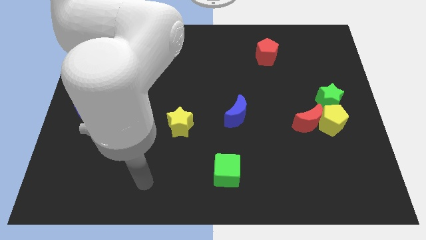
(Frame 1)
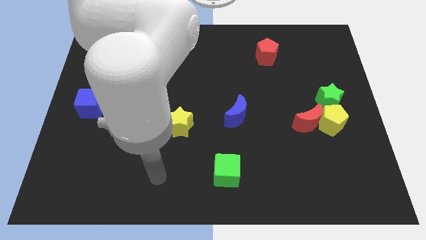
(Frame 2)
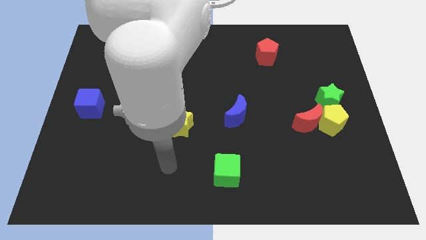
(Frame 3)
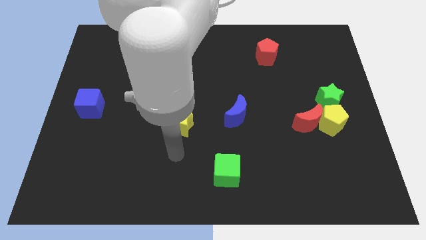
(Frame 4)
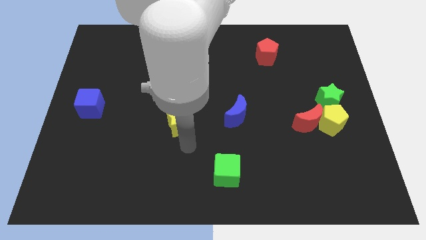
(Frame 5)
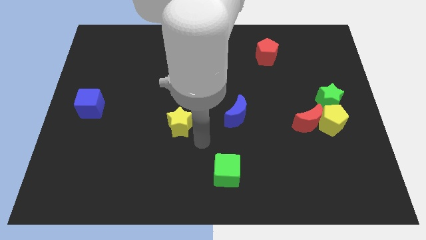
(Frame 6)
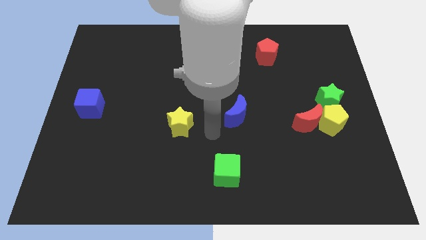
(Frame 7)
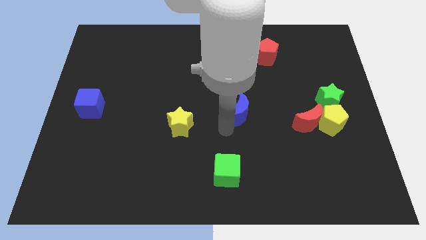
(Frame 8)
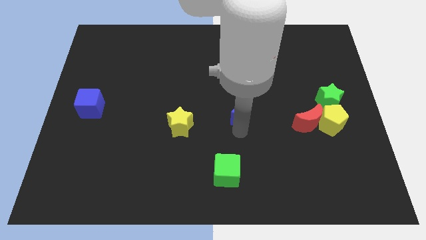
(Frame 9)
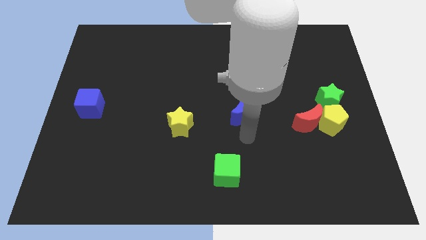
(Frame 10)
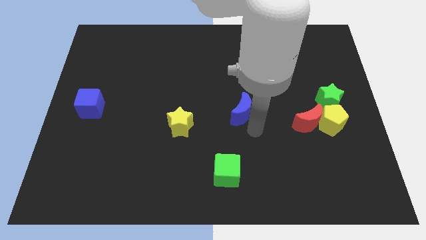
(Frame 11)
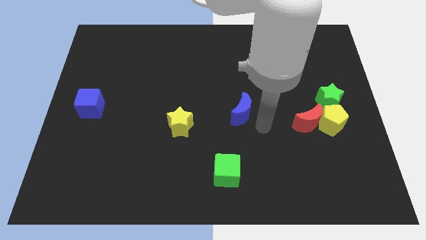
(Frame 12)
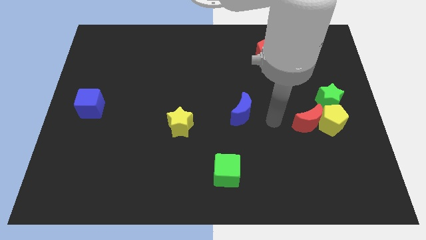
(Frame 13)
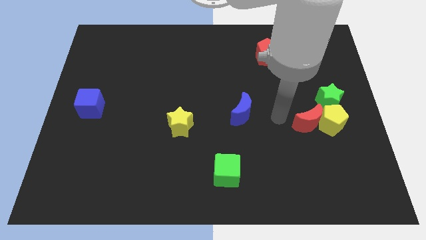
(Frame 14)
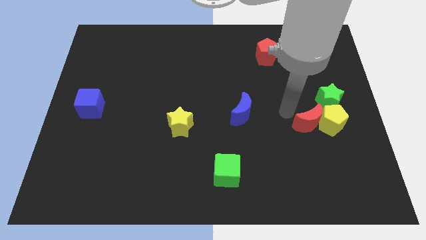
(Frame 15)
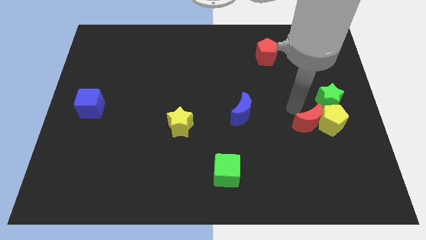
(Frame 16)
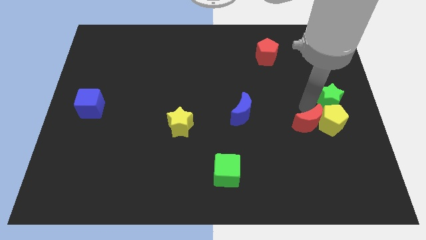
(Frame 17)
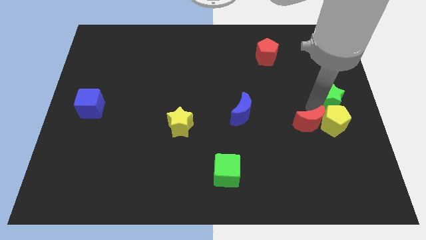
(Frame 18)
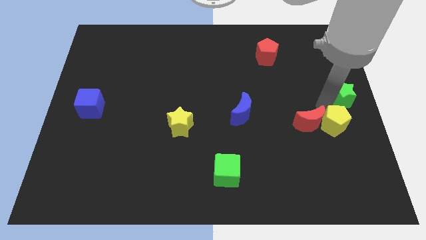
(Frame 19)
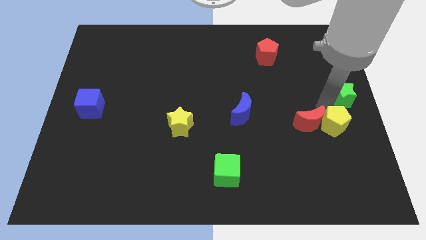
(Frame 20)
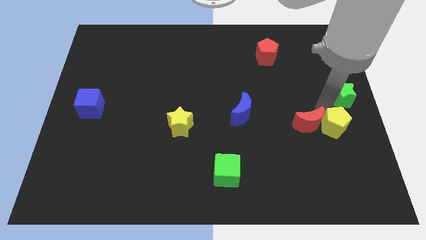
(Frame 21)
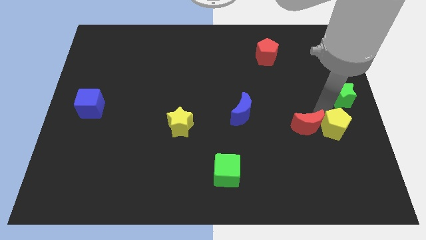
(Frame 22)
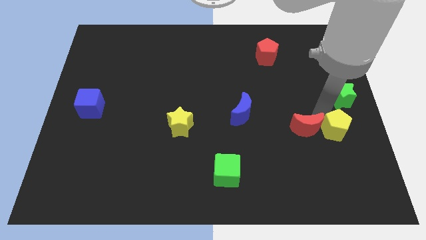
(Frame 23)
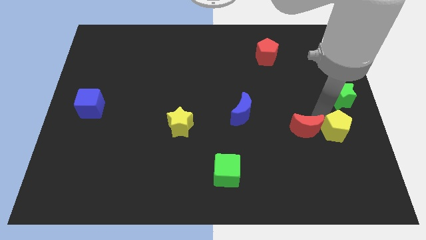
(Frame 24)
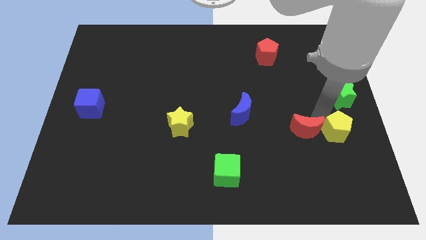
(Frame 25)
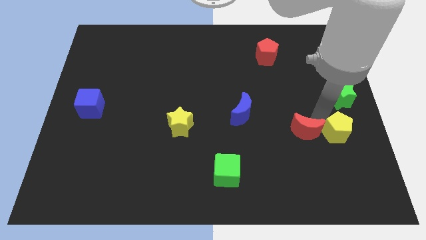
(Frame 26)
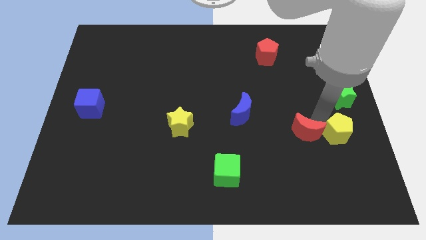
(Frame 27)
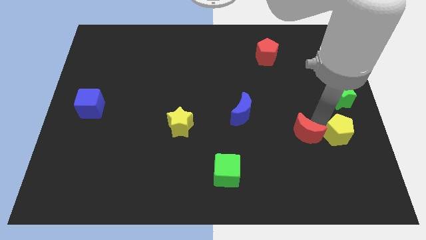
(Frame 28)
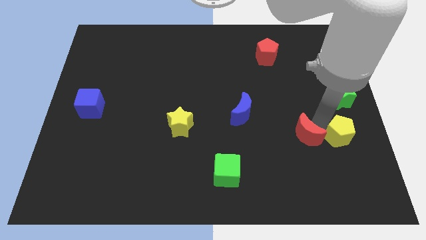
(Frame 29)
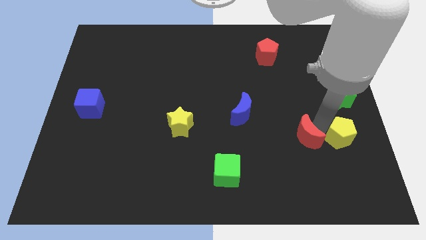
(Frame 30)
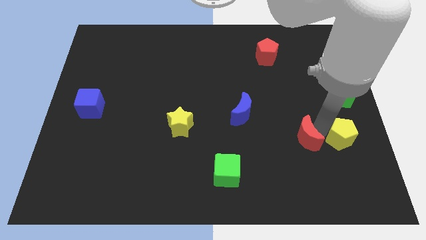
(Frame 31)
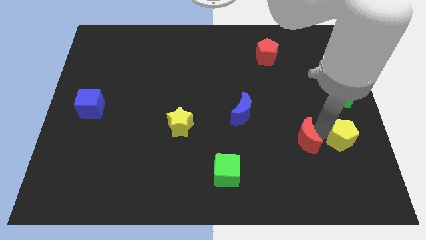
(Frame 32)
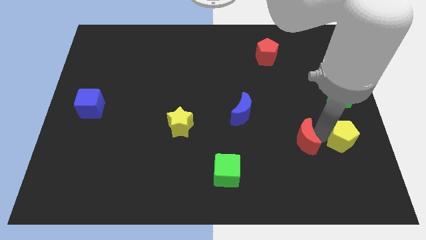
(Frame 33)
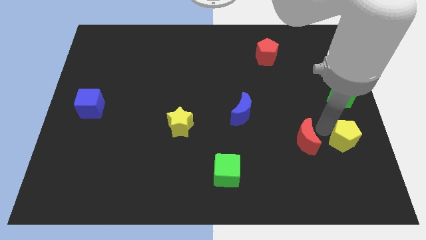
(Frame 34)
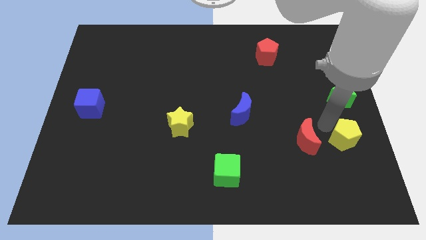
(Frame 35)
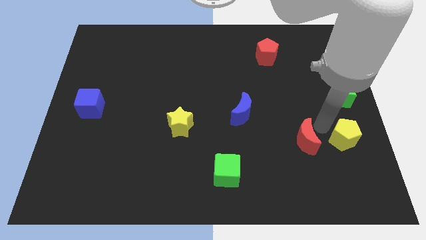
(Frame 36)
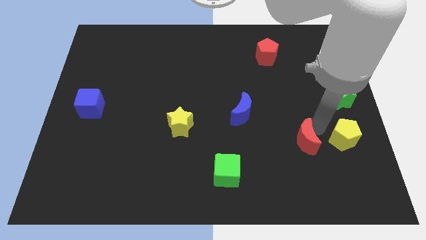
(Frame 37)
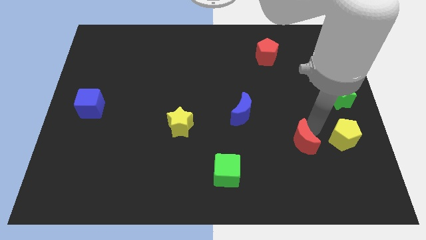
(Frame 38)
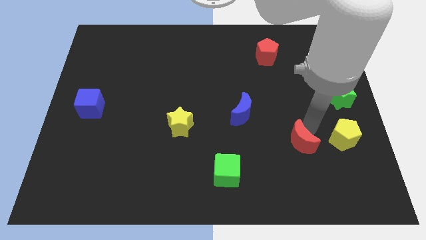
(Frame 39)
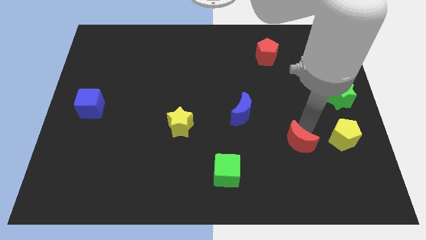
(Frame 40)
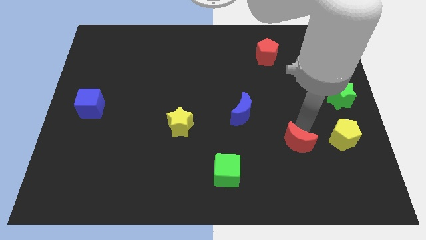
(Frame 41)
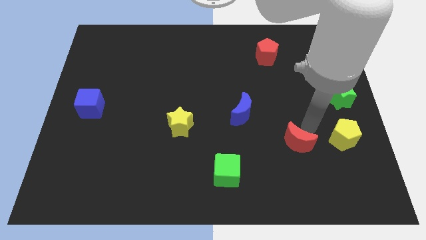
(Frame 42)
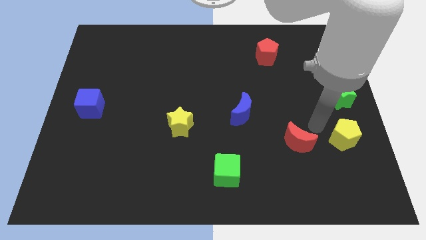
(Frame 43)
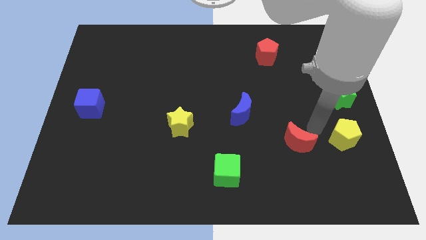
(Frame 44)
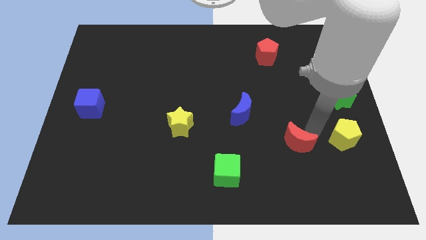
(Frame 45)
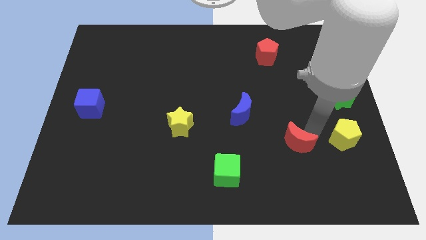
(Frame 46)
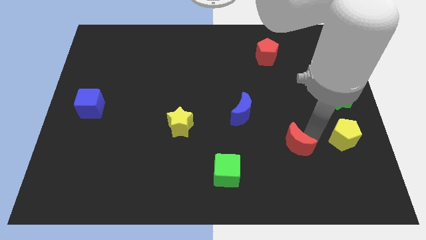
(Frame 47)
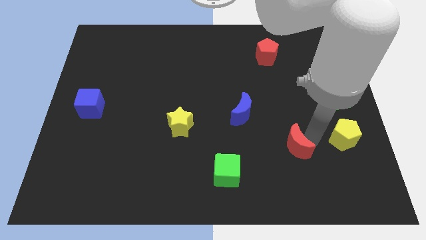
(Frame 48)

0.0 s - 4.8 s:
push the red moon a bit diagonally down and to the left

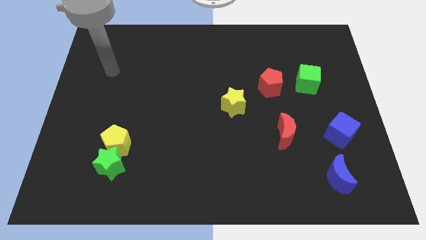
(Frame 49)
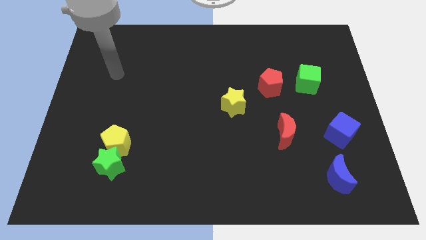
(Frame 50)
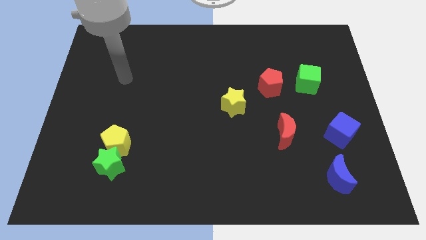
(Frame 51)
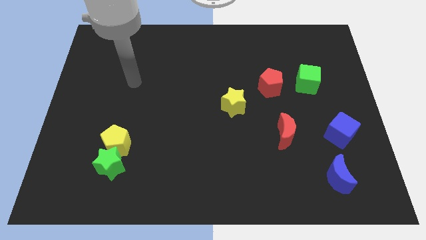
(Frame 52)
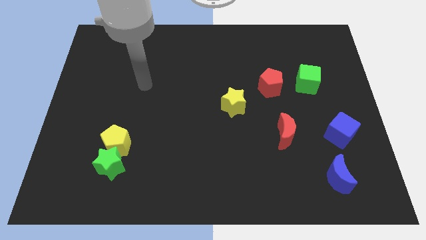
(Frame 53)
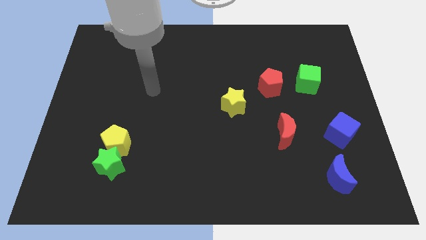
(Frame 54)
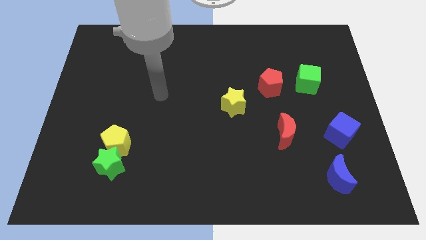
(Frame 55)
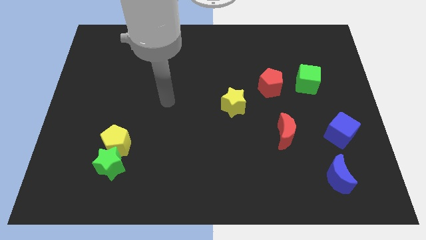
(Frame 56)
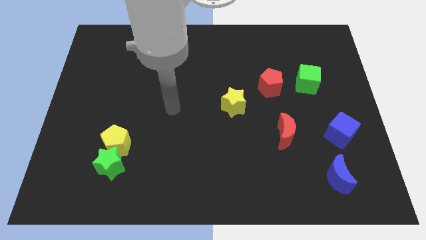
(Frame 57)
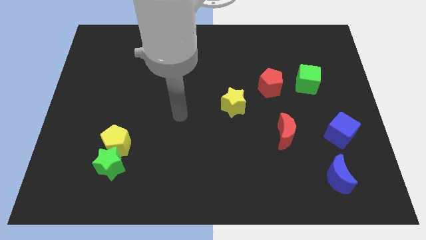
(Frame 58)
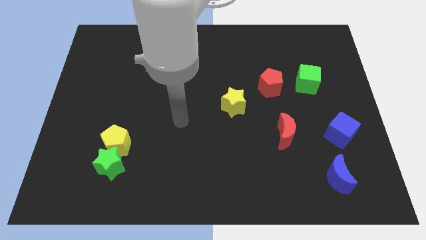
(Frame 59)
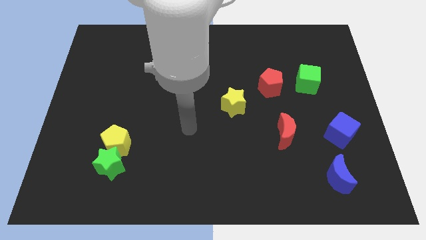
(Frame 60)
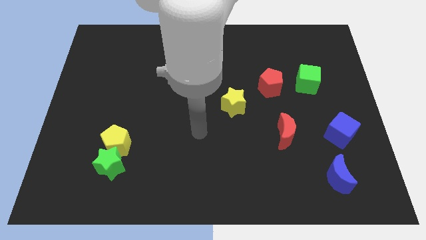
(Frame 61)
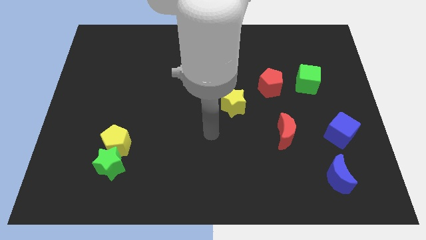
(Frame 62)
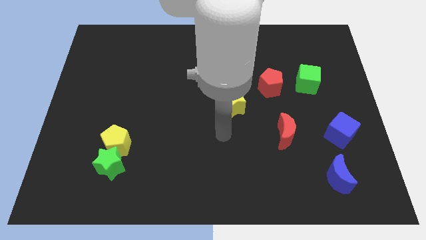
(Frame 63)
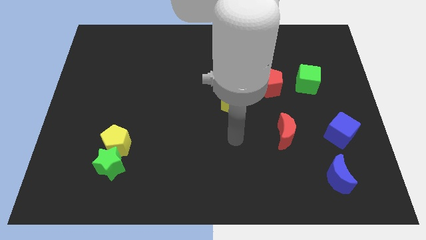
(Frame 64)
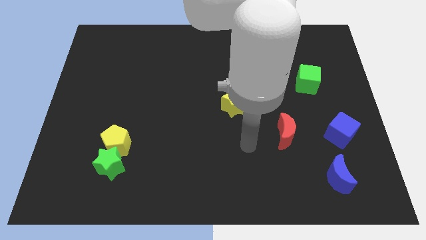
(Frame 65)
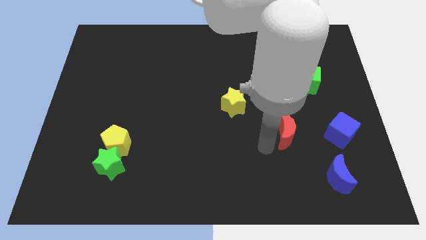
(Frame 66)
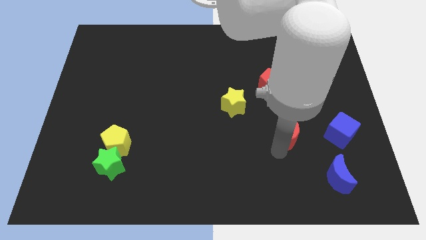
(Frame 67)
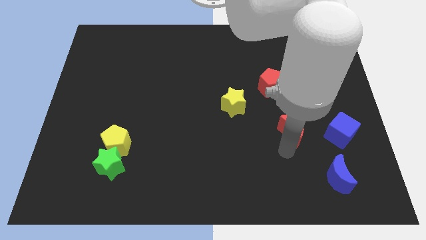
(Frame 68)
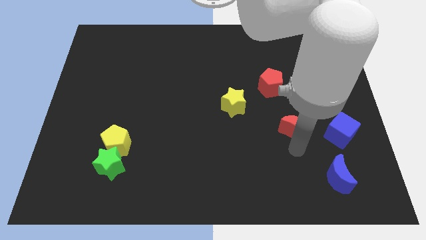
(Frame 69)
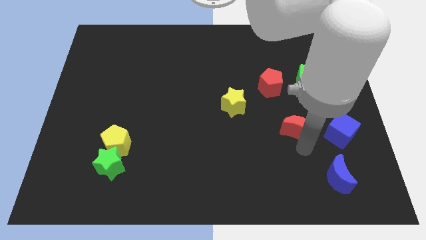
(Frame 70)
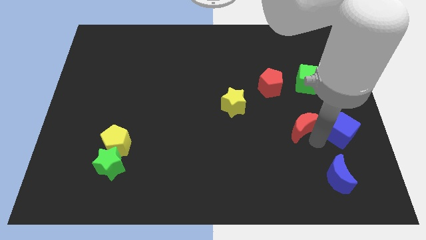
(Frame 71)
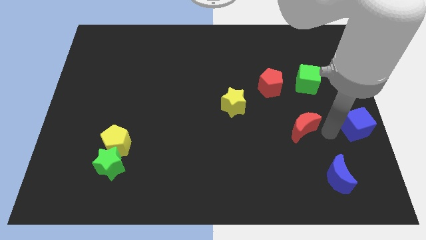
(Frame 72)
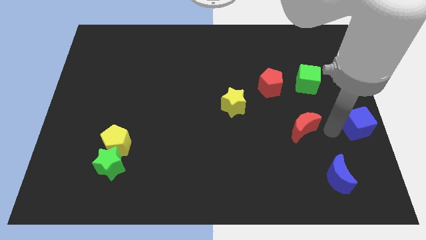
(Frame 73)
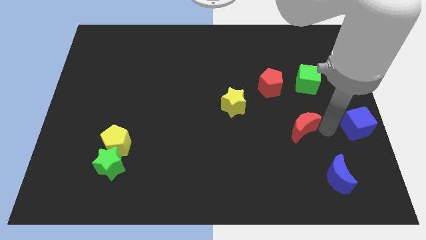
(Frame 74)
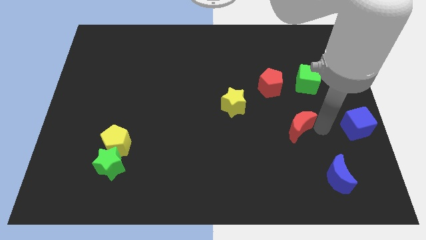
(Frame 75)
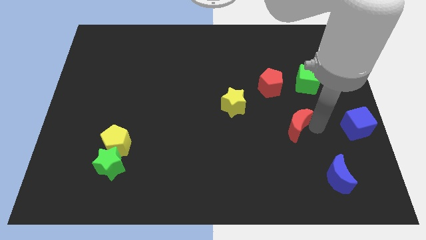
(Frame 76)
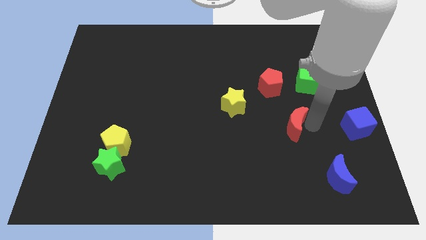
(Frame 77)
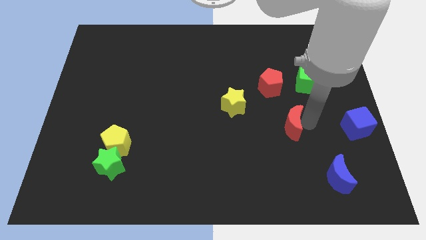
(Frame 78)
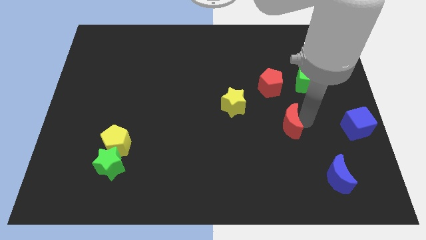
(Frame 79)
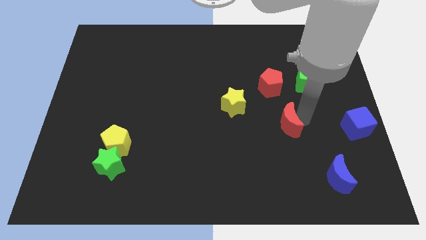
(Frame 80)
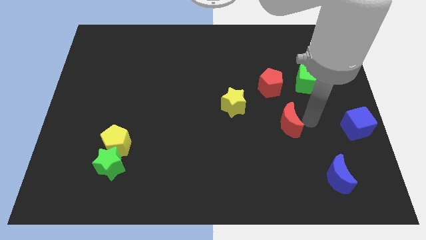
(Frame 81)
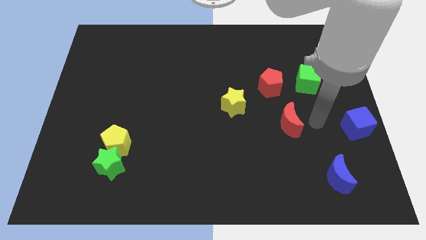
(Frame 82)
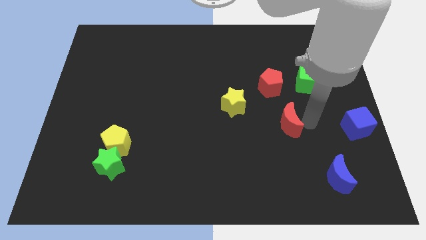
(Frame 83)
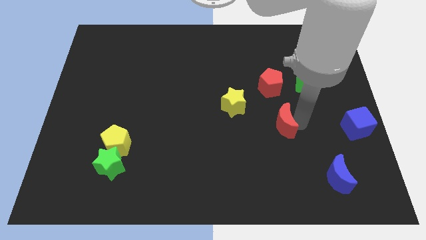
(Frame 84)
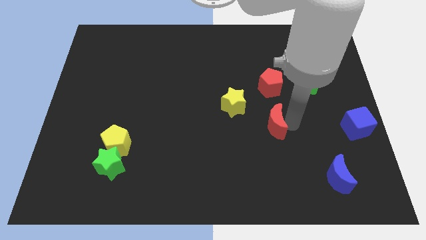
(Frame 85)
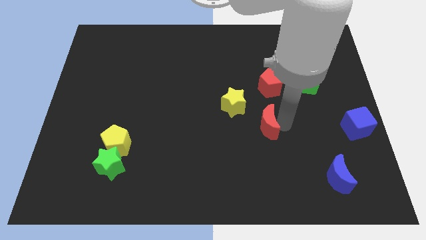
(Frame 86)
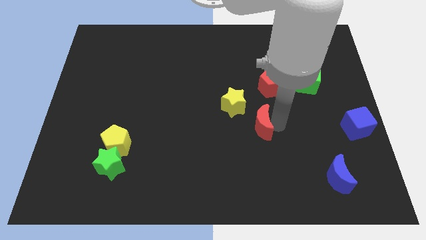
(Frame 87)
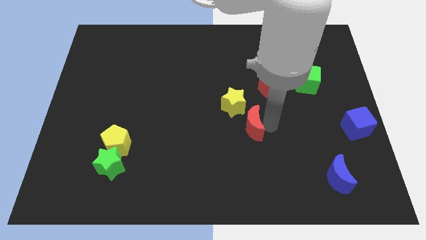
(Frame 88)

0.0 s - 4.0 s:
move the red moon a bit left
